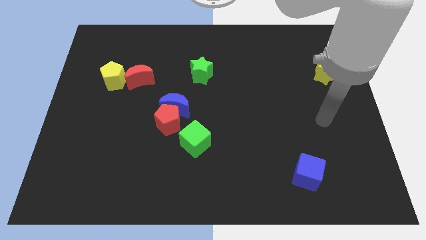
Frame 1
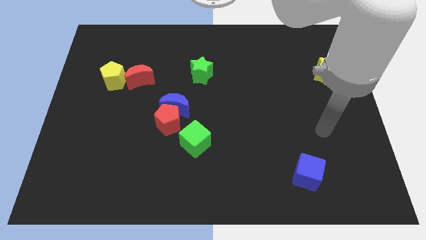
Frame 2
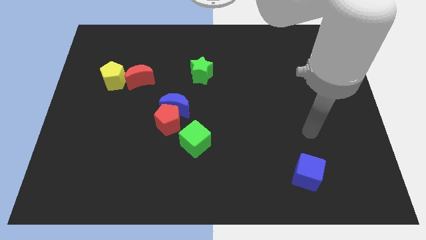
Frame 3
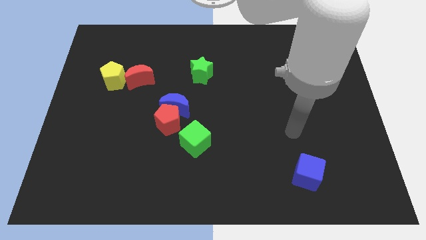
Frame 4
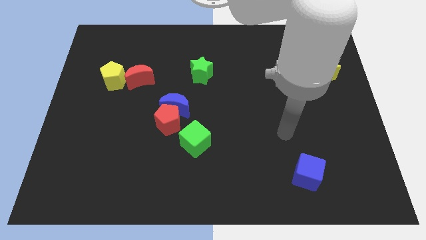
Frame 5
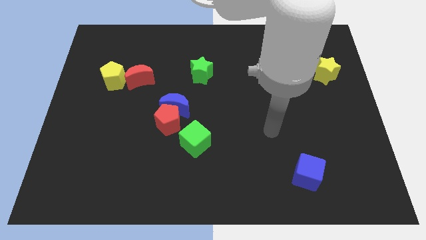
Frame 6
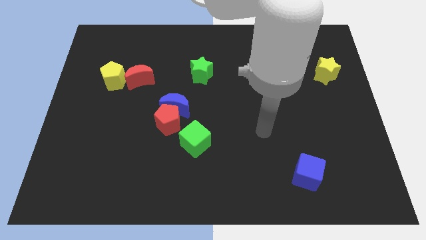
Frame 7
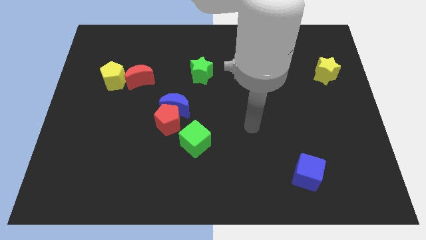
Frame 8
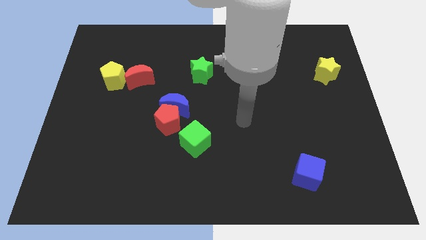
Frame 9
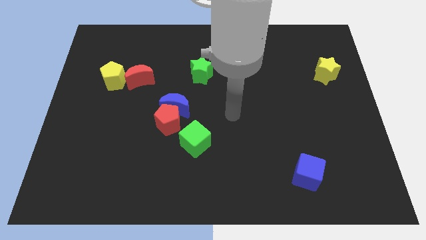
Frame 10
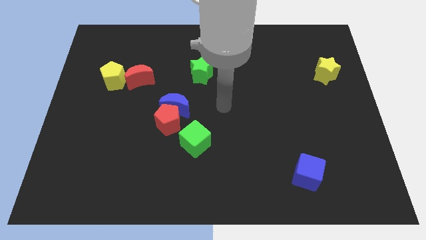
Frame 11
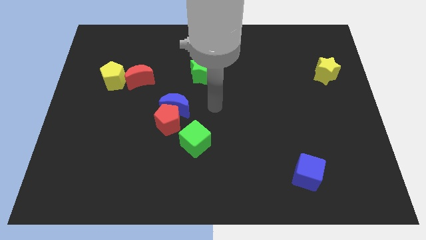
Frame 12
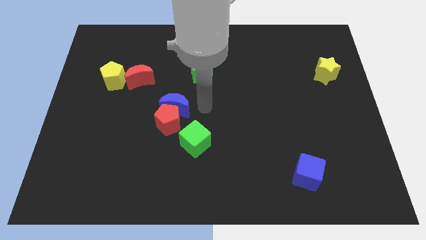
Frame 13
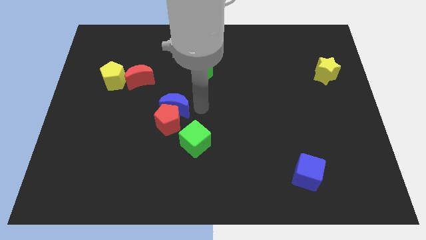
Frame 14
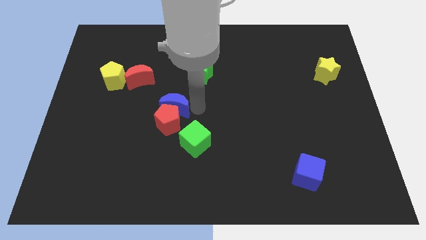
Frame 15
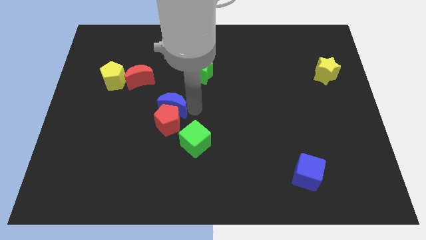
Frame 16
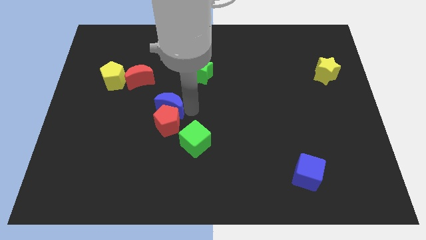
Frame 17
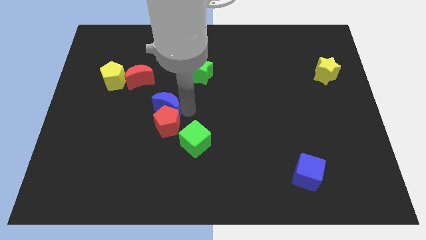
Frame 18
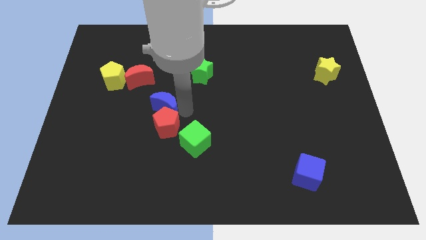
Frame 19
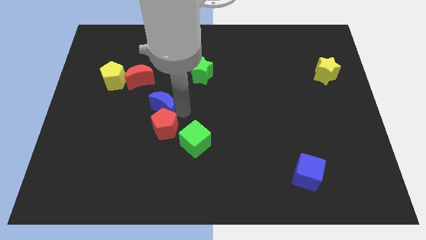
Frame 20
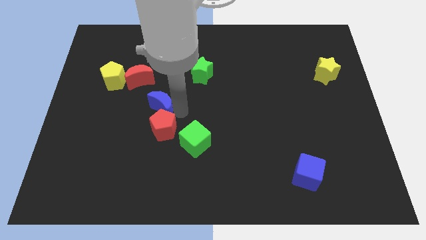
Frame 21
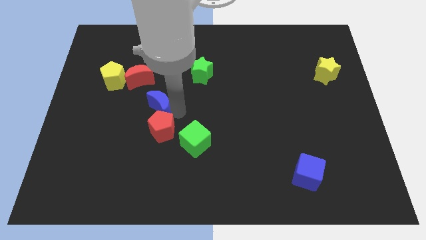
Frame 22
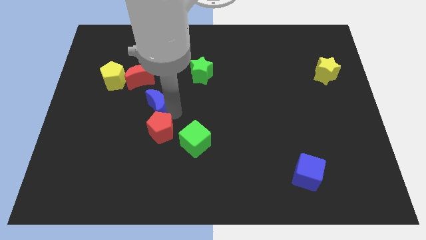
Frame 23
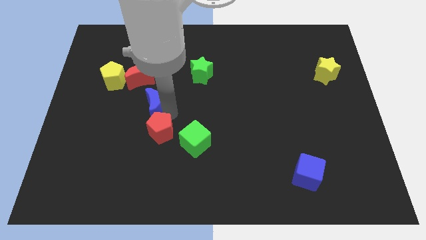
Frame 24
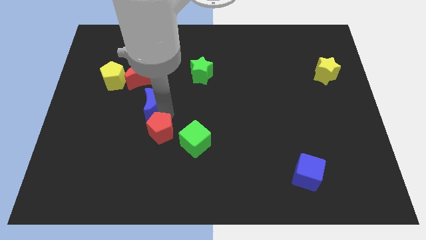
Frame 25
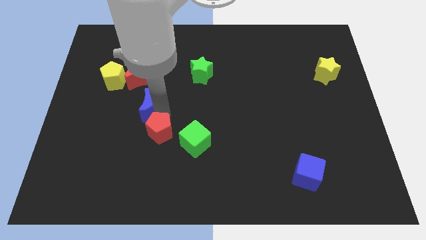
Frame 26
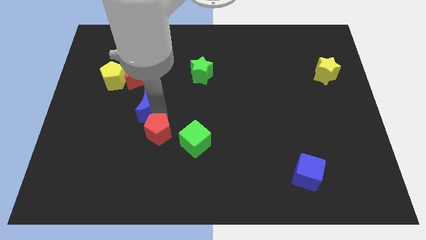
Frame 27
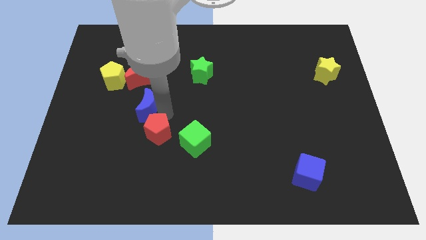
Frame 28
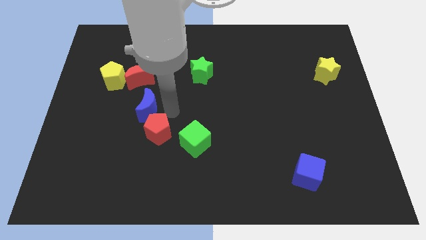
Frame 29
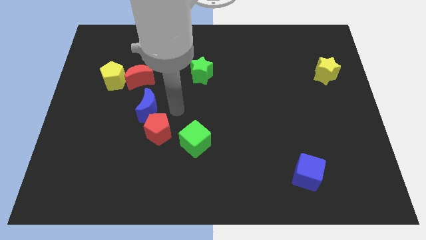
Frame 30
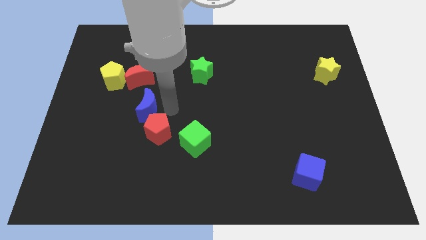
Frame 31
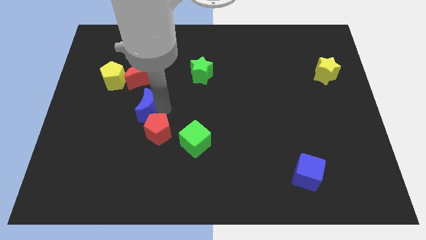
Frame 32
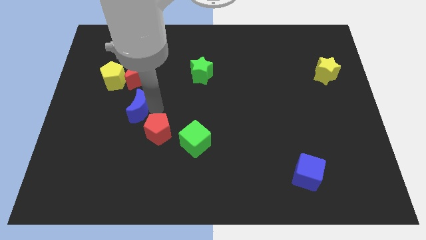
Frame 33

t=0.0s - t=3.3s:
slightly move the blue moon to the left

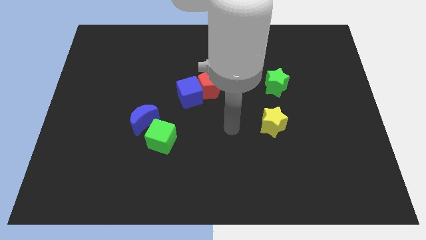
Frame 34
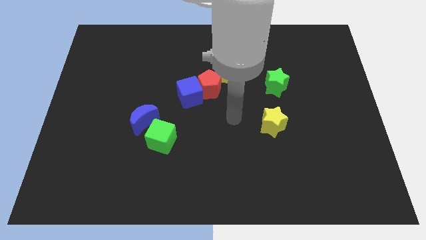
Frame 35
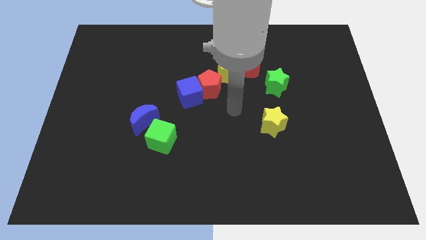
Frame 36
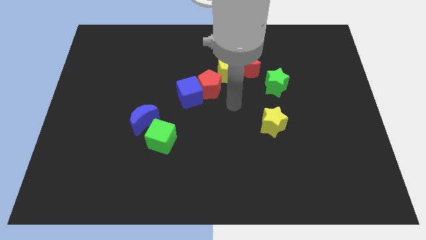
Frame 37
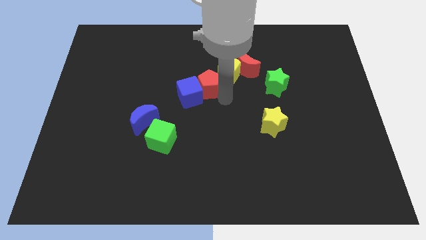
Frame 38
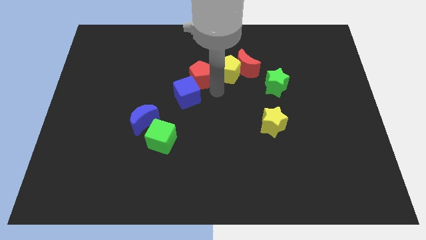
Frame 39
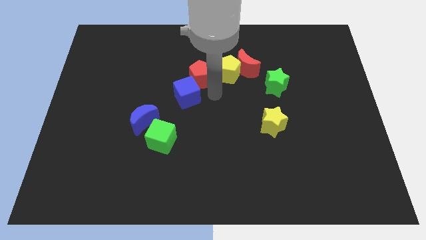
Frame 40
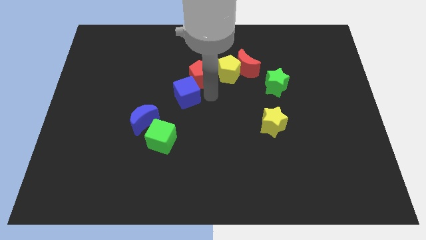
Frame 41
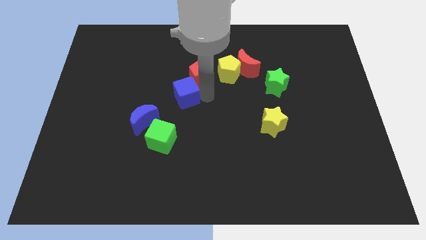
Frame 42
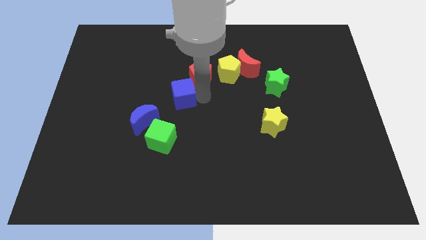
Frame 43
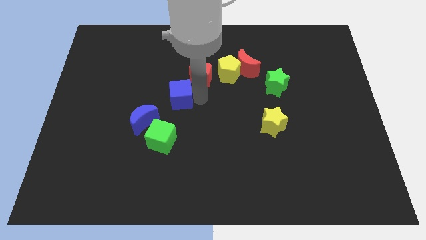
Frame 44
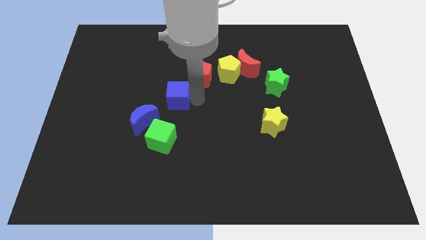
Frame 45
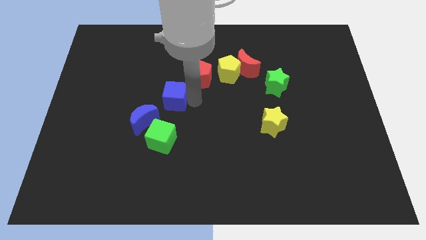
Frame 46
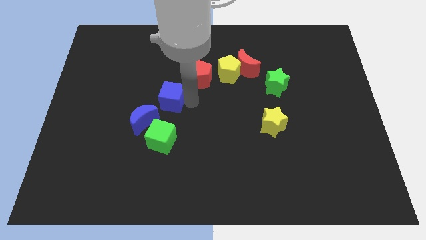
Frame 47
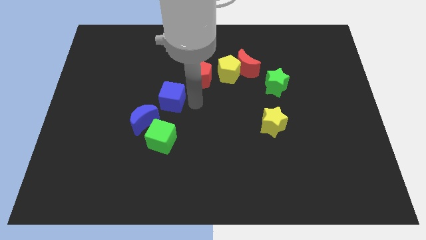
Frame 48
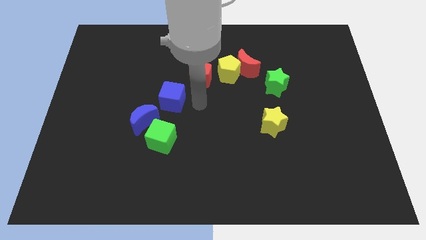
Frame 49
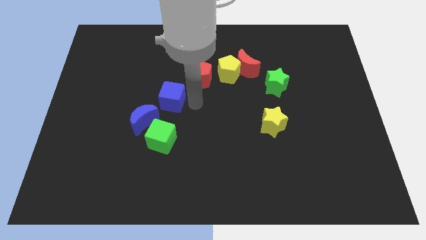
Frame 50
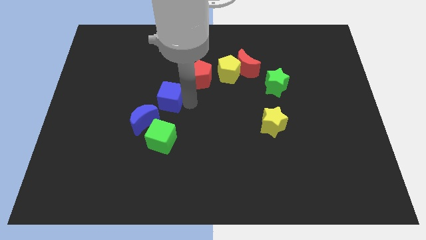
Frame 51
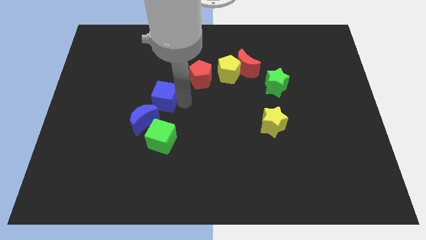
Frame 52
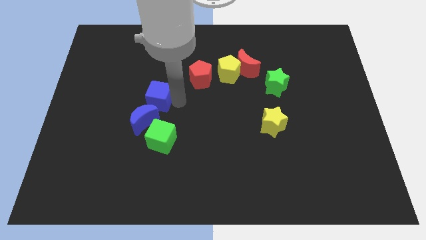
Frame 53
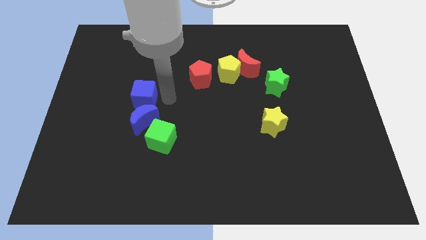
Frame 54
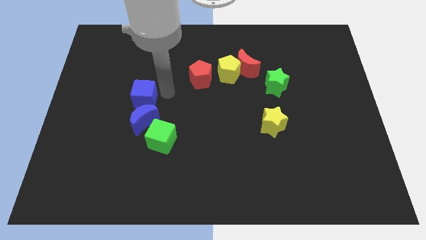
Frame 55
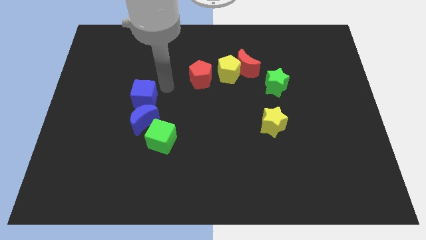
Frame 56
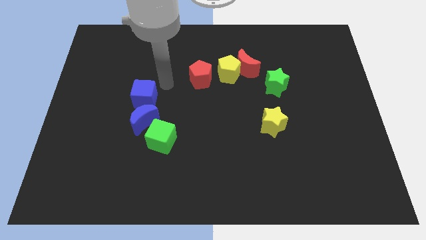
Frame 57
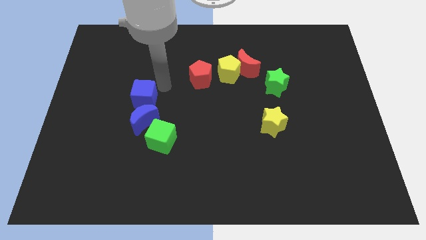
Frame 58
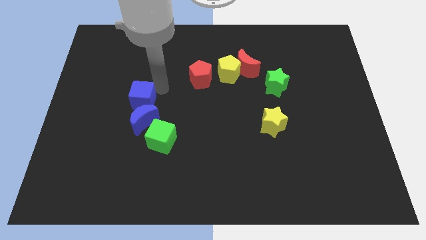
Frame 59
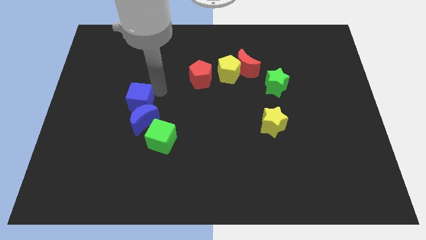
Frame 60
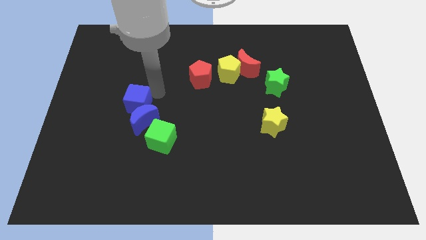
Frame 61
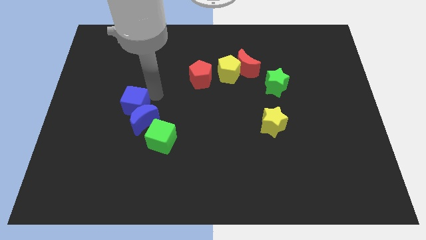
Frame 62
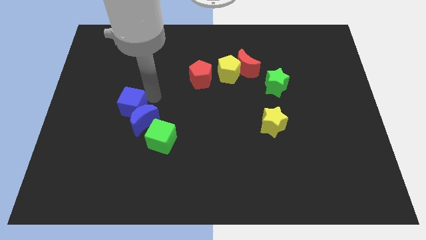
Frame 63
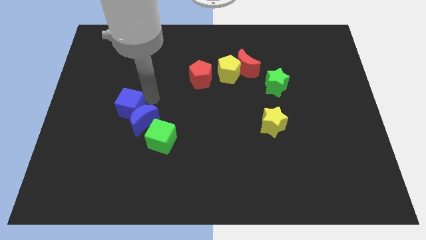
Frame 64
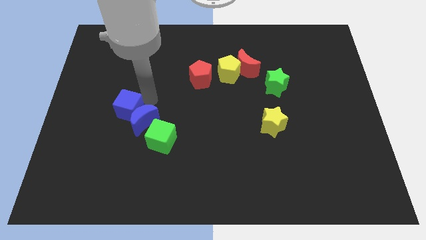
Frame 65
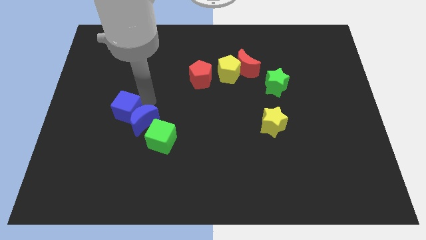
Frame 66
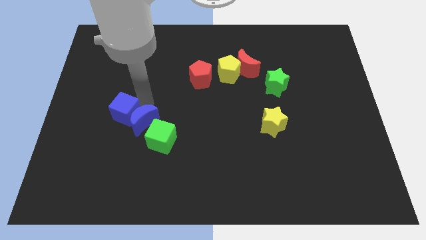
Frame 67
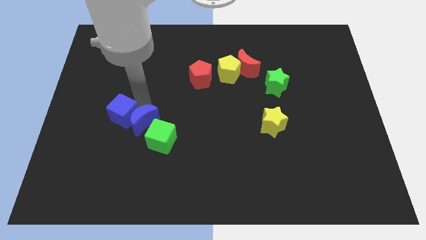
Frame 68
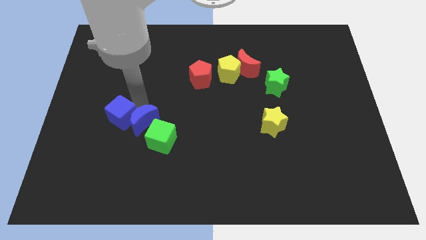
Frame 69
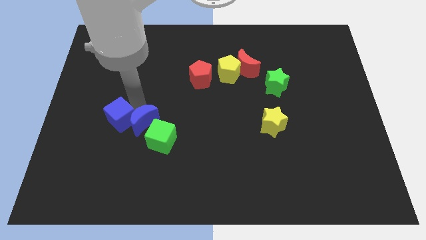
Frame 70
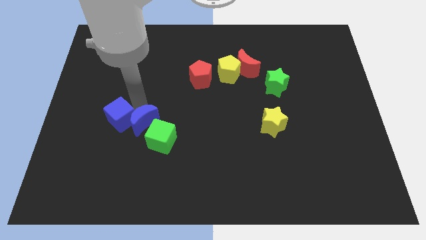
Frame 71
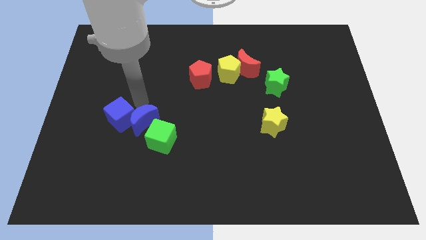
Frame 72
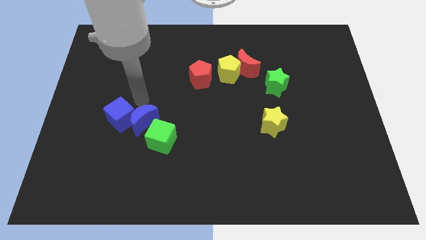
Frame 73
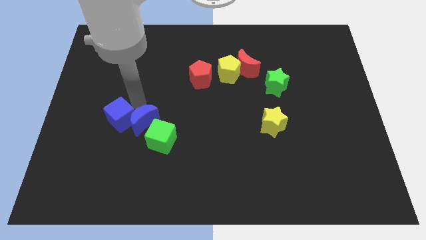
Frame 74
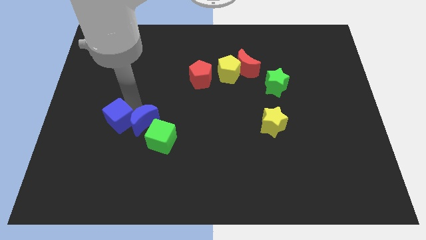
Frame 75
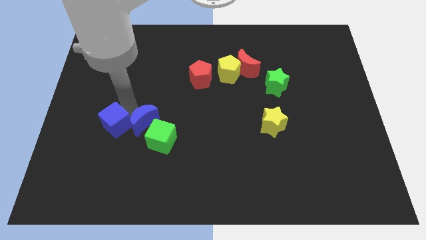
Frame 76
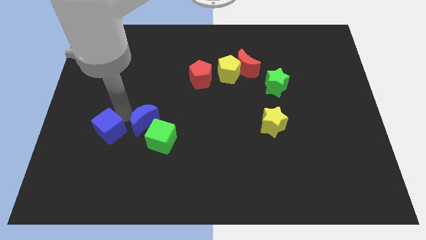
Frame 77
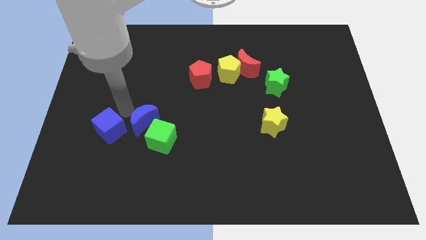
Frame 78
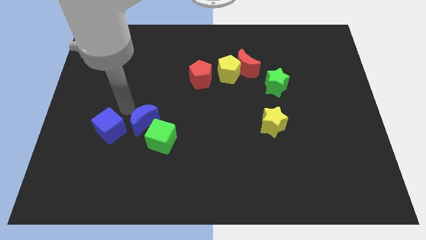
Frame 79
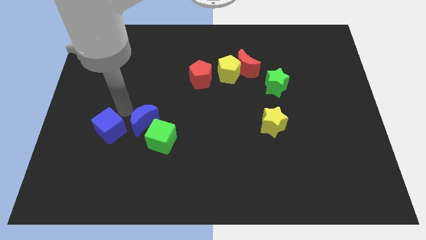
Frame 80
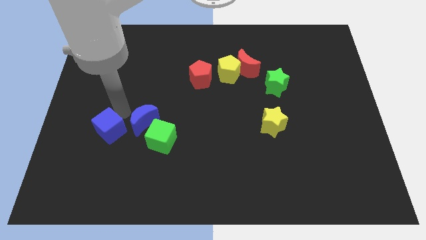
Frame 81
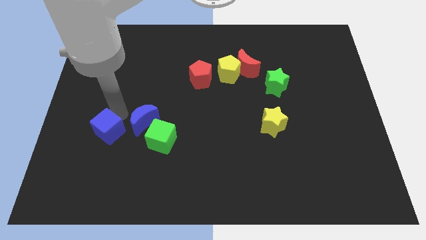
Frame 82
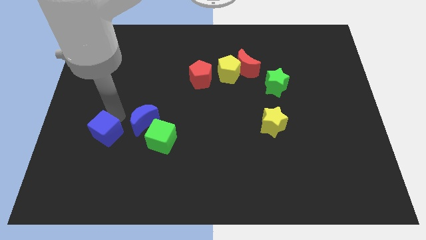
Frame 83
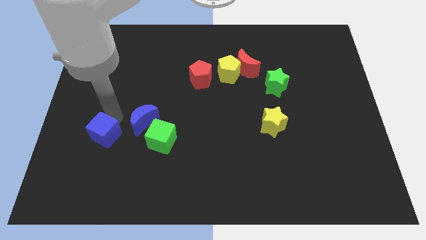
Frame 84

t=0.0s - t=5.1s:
move the blue cube diagonally downwards and to the left
